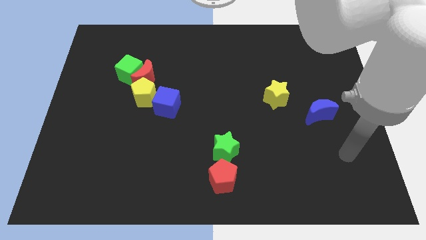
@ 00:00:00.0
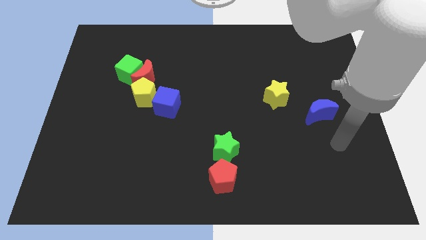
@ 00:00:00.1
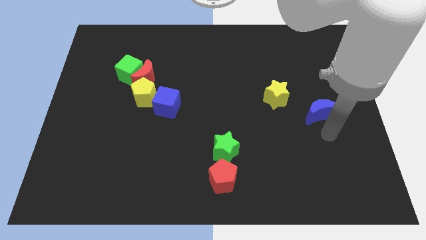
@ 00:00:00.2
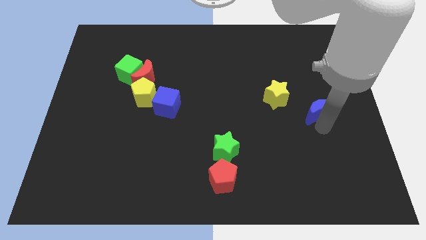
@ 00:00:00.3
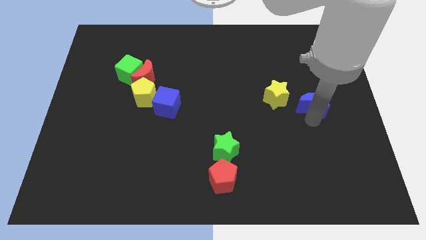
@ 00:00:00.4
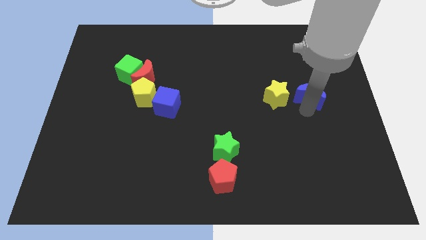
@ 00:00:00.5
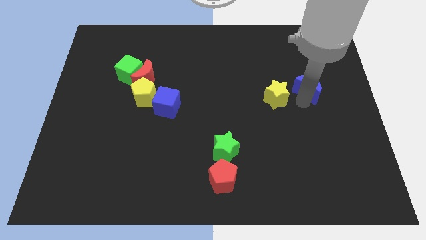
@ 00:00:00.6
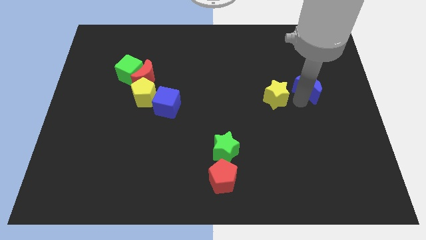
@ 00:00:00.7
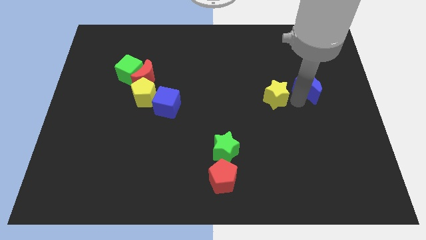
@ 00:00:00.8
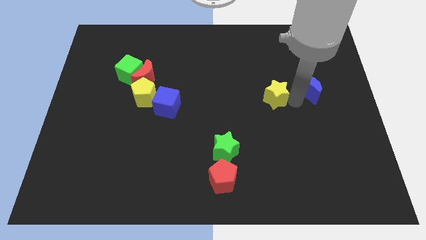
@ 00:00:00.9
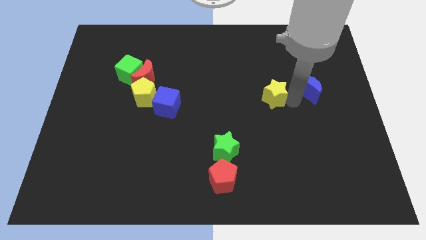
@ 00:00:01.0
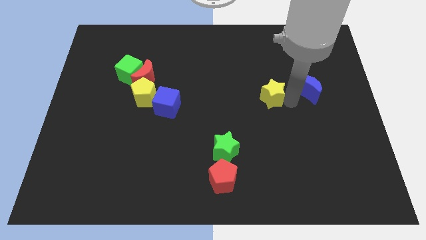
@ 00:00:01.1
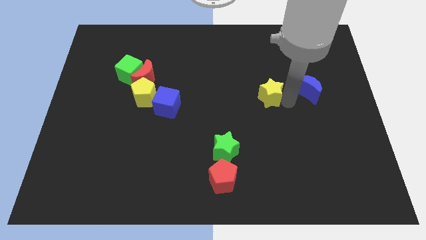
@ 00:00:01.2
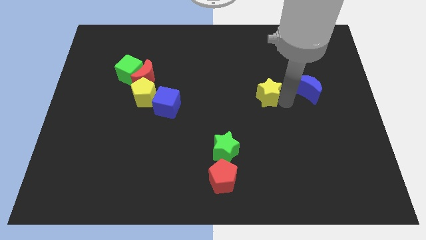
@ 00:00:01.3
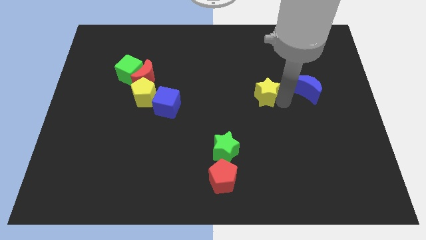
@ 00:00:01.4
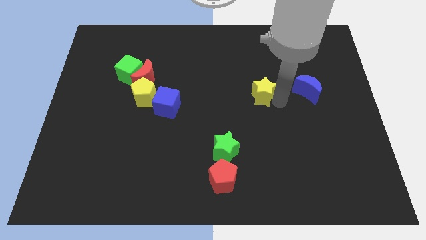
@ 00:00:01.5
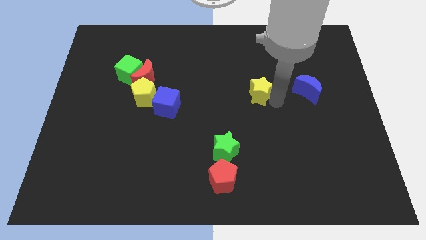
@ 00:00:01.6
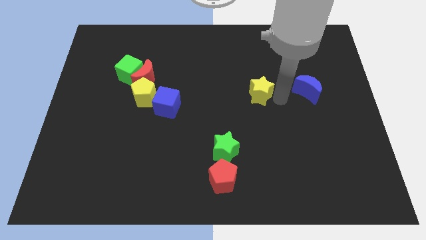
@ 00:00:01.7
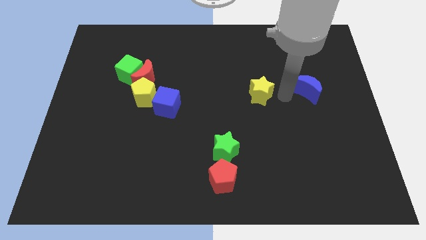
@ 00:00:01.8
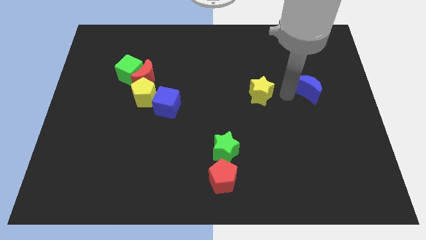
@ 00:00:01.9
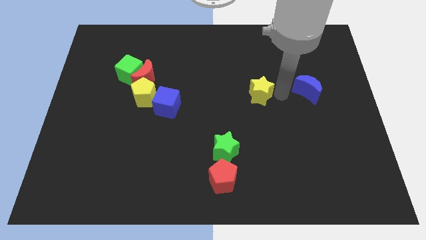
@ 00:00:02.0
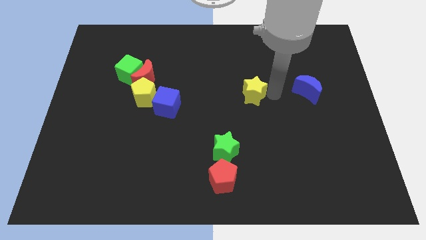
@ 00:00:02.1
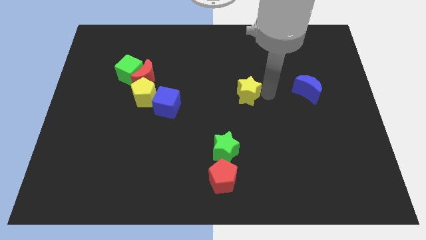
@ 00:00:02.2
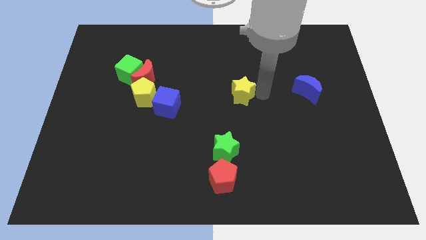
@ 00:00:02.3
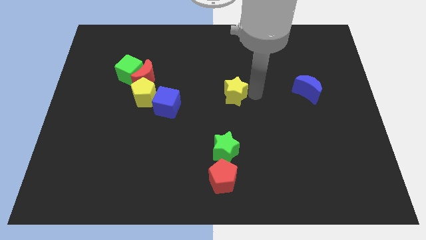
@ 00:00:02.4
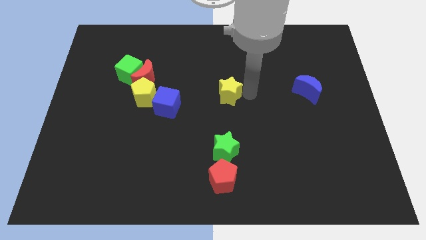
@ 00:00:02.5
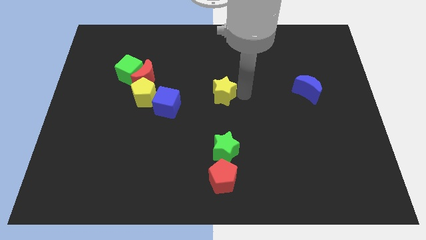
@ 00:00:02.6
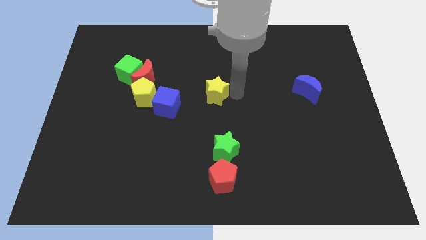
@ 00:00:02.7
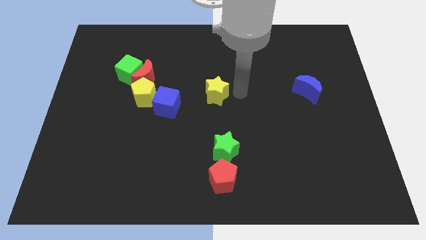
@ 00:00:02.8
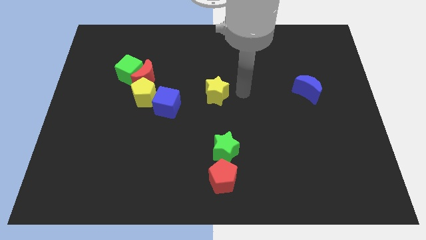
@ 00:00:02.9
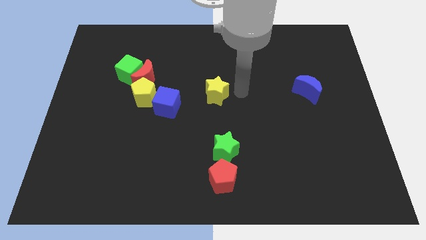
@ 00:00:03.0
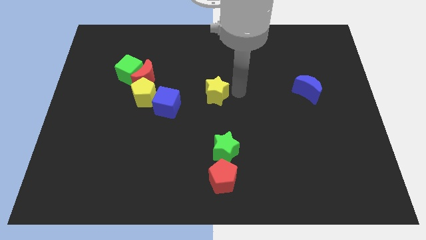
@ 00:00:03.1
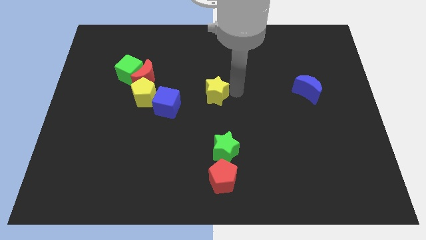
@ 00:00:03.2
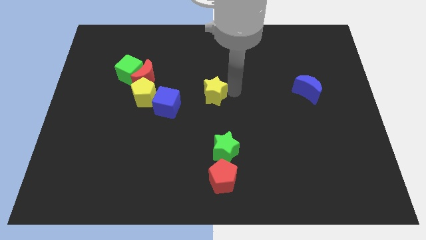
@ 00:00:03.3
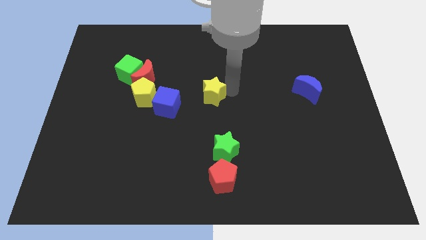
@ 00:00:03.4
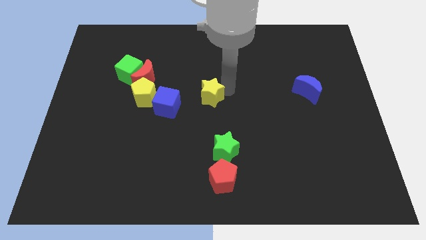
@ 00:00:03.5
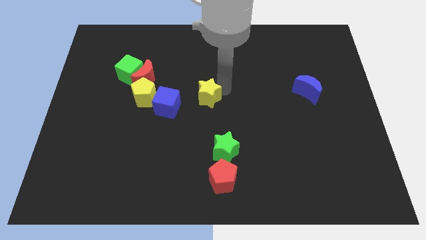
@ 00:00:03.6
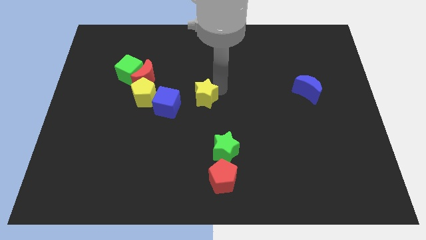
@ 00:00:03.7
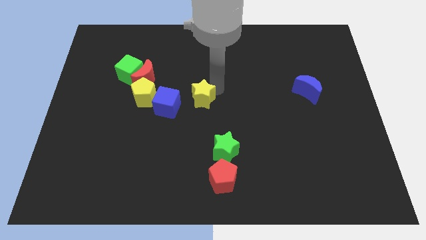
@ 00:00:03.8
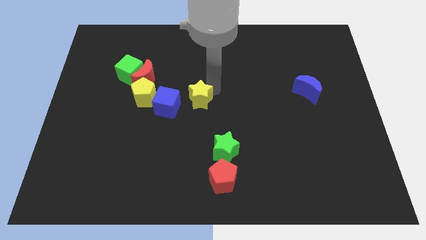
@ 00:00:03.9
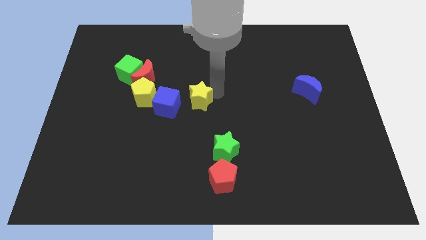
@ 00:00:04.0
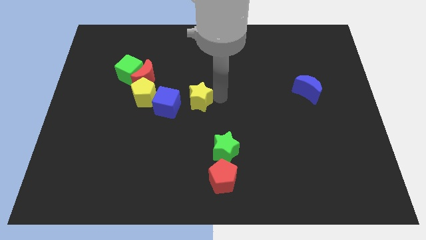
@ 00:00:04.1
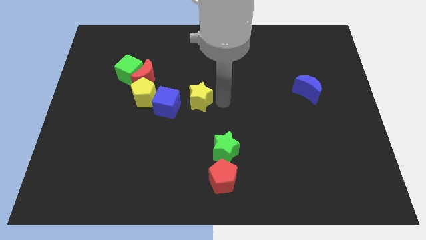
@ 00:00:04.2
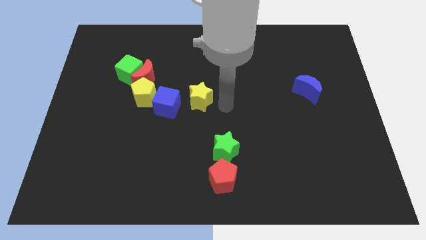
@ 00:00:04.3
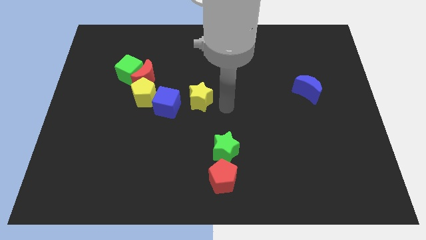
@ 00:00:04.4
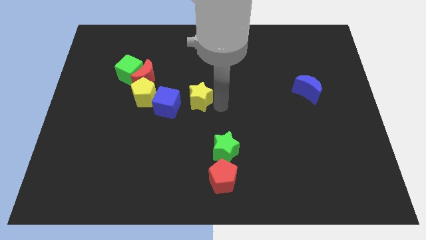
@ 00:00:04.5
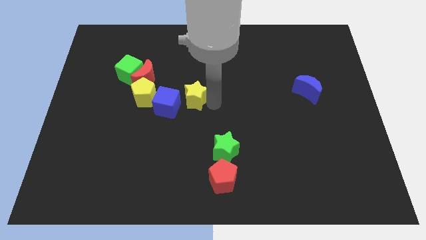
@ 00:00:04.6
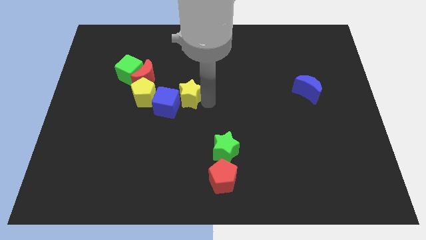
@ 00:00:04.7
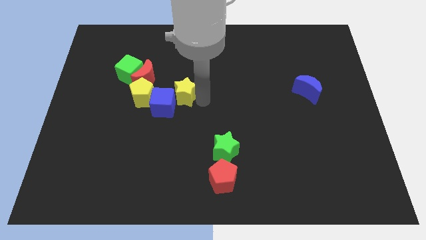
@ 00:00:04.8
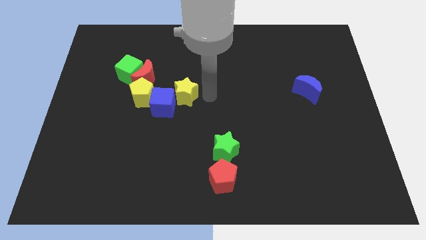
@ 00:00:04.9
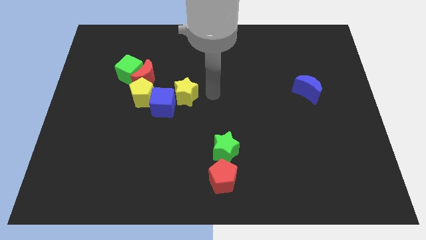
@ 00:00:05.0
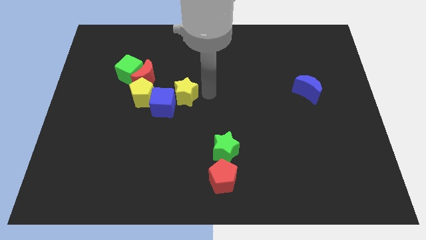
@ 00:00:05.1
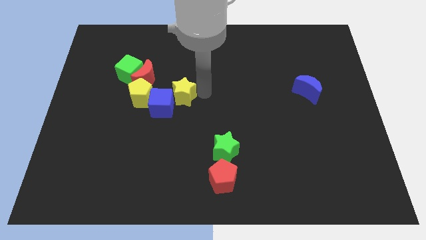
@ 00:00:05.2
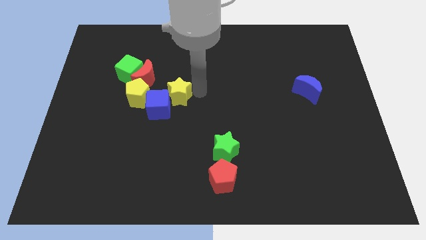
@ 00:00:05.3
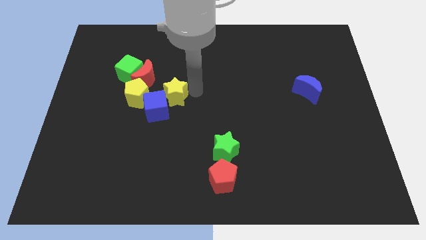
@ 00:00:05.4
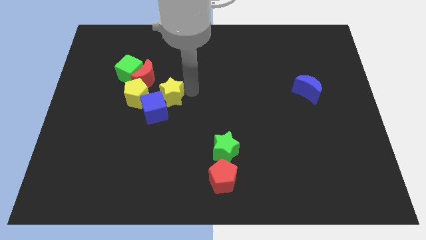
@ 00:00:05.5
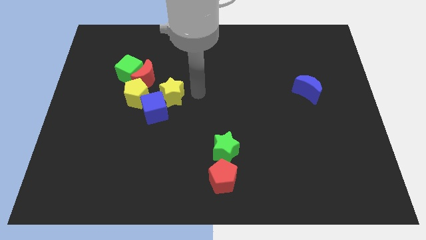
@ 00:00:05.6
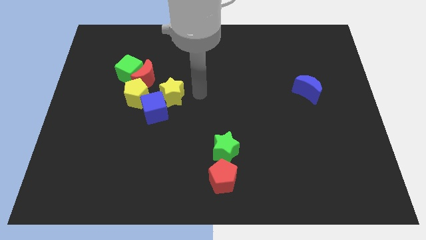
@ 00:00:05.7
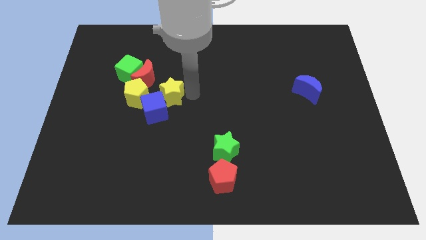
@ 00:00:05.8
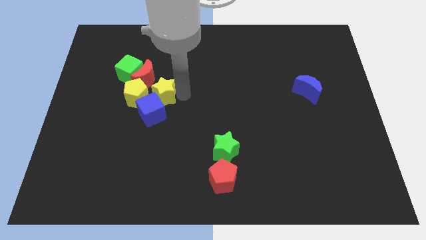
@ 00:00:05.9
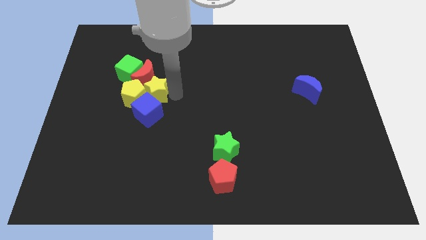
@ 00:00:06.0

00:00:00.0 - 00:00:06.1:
push the yellow star close to the yellow pentagon

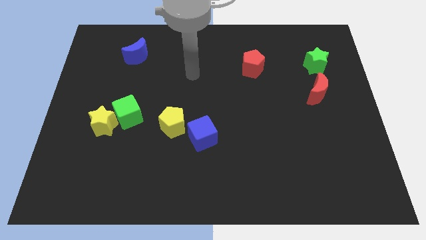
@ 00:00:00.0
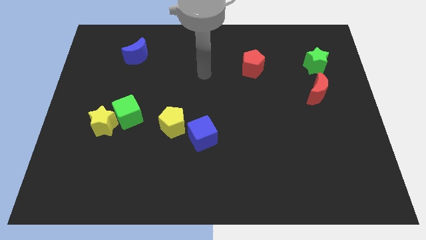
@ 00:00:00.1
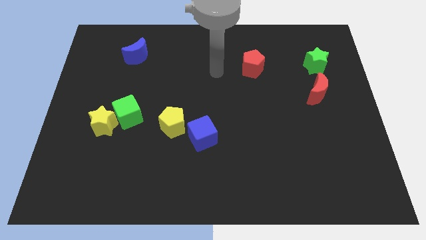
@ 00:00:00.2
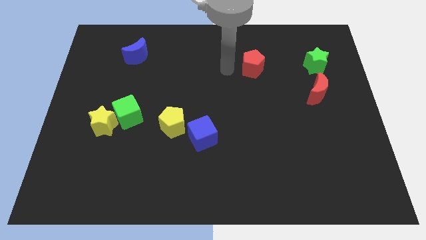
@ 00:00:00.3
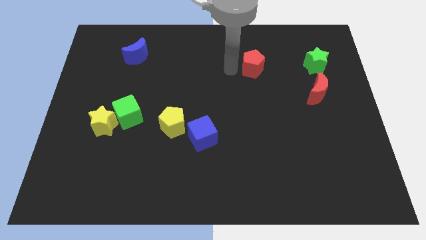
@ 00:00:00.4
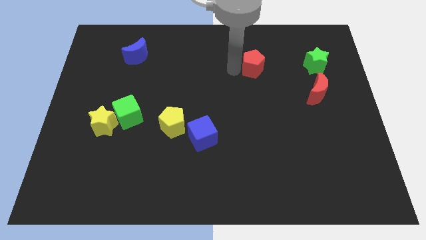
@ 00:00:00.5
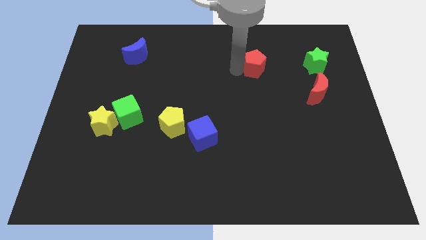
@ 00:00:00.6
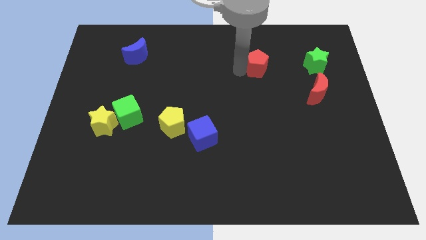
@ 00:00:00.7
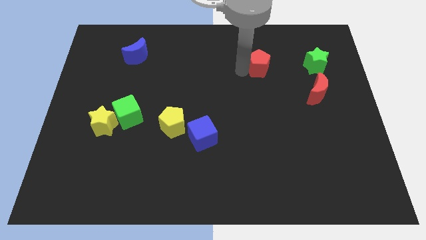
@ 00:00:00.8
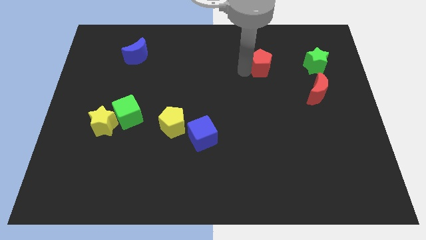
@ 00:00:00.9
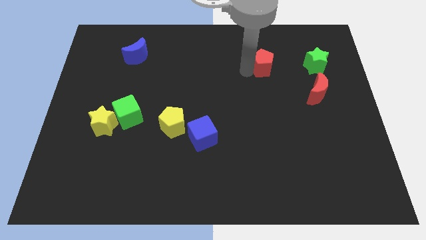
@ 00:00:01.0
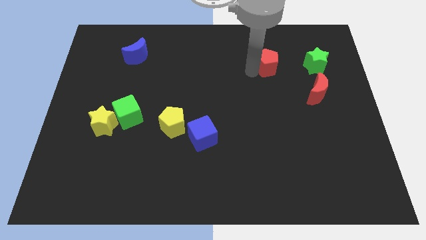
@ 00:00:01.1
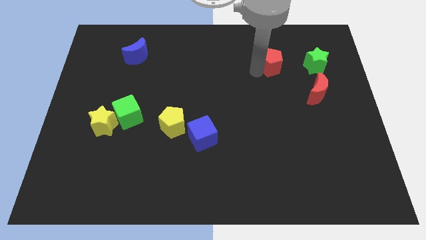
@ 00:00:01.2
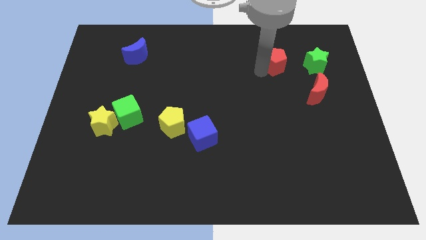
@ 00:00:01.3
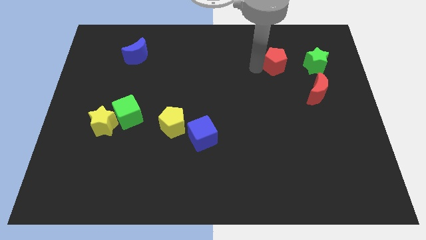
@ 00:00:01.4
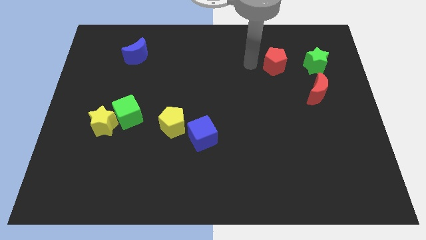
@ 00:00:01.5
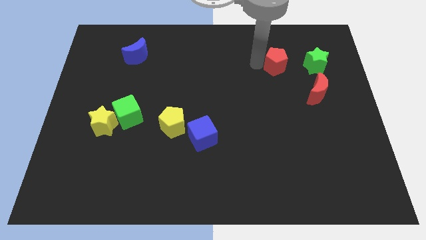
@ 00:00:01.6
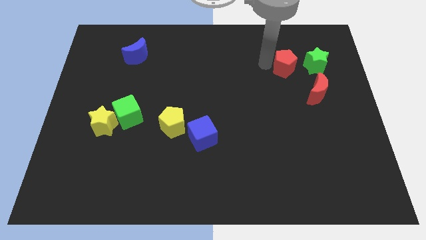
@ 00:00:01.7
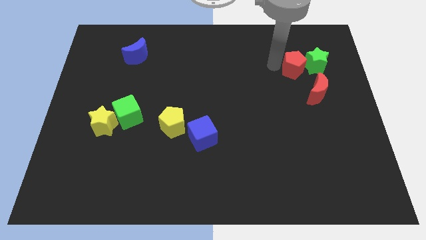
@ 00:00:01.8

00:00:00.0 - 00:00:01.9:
slide the red pentagon to the green star
